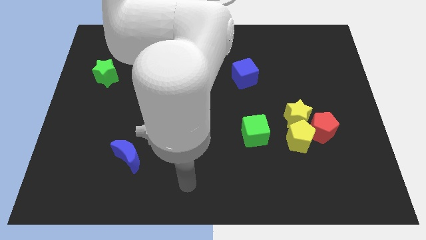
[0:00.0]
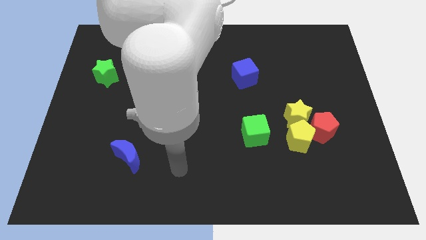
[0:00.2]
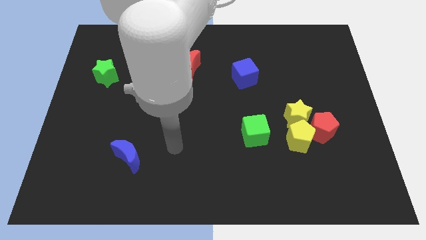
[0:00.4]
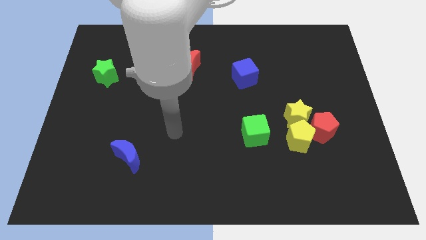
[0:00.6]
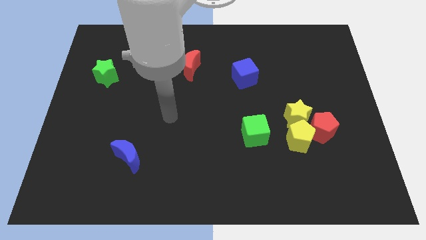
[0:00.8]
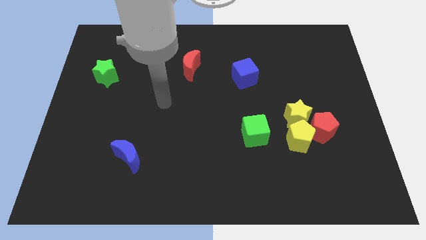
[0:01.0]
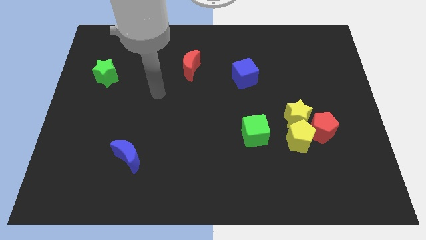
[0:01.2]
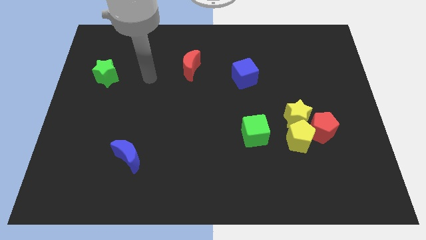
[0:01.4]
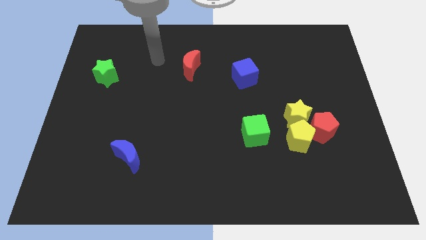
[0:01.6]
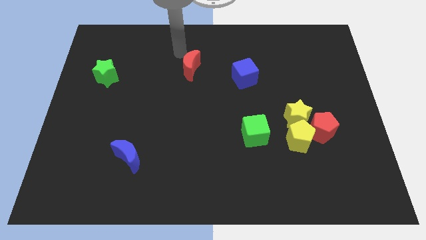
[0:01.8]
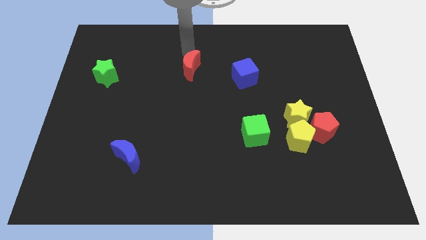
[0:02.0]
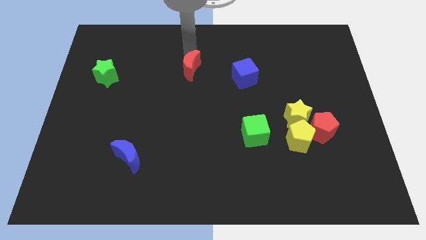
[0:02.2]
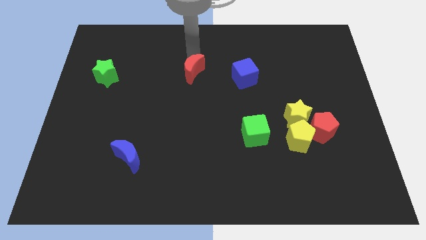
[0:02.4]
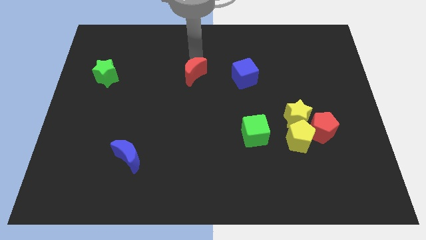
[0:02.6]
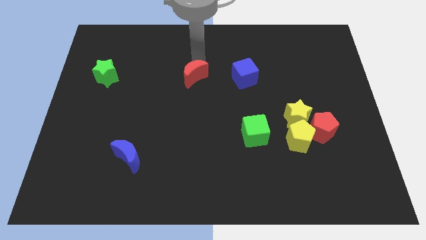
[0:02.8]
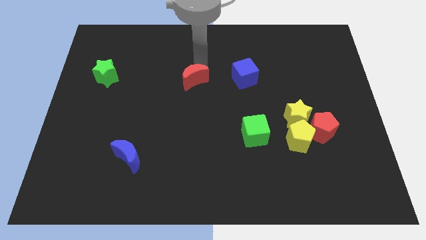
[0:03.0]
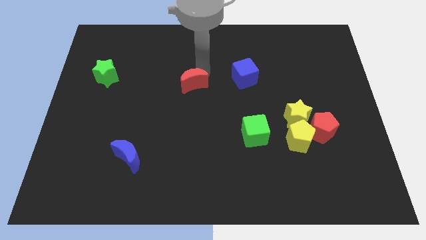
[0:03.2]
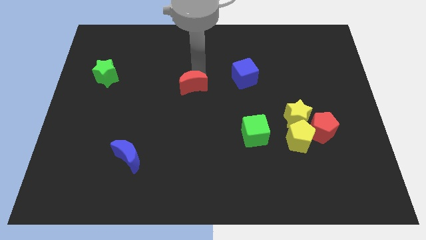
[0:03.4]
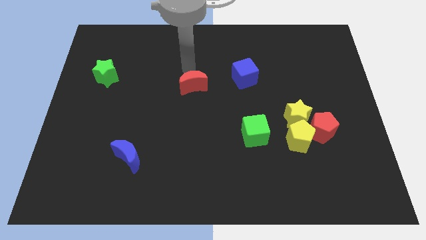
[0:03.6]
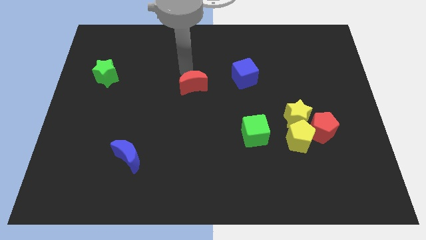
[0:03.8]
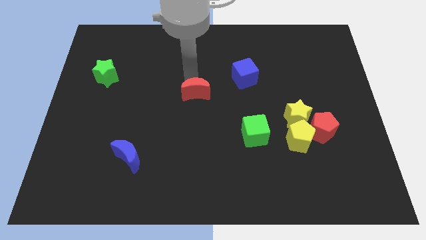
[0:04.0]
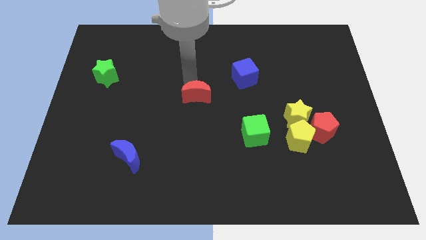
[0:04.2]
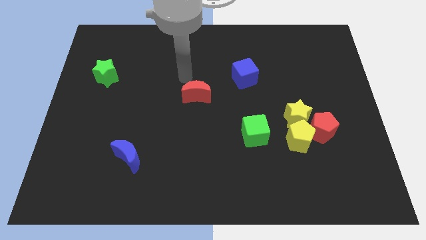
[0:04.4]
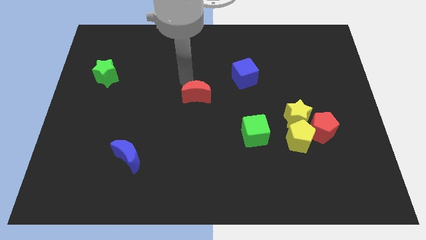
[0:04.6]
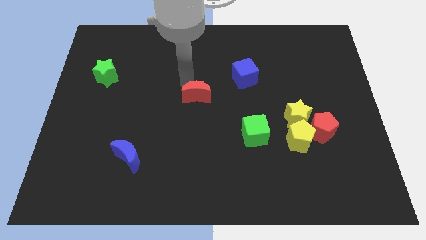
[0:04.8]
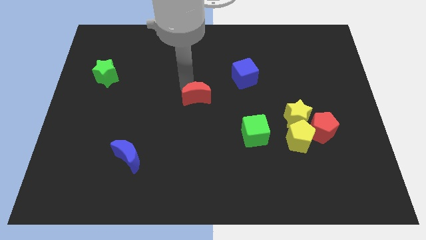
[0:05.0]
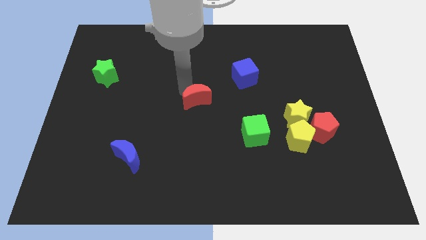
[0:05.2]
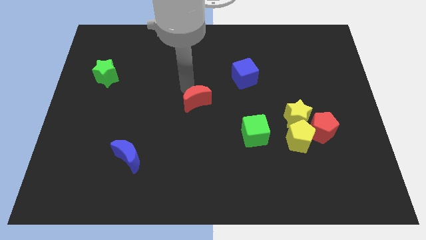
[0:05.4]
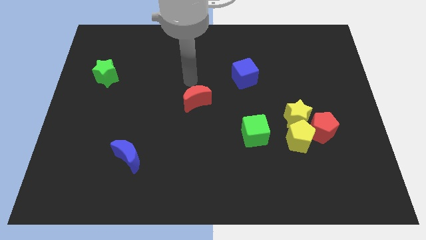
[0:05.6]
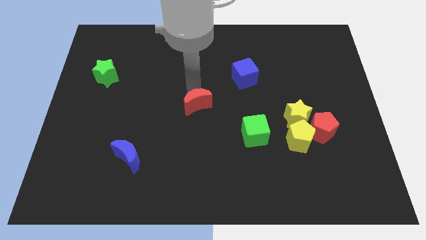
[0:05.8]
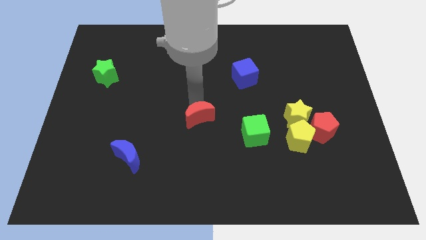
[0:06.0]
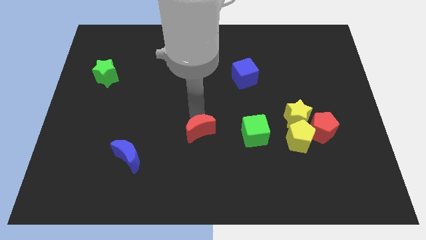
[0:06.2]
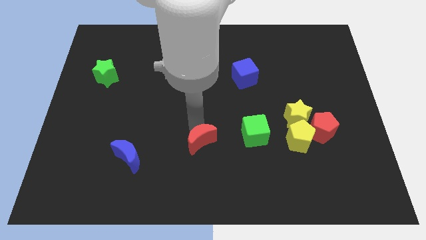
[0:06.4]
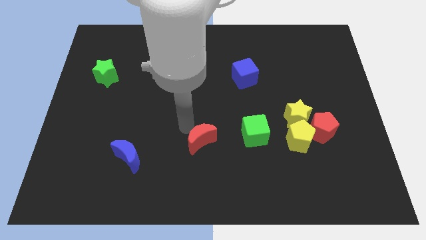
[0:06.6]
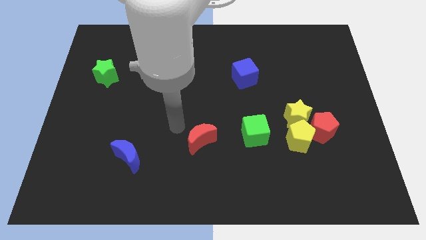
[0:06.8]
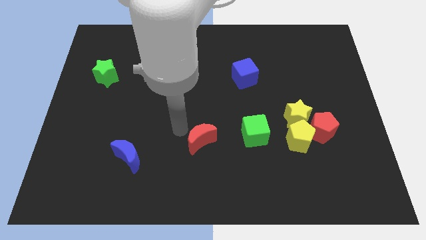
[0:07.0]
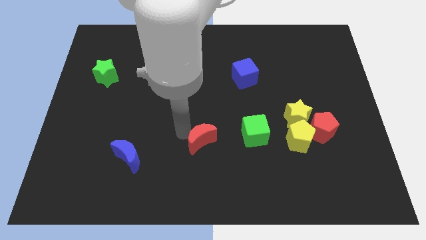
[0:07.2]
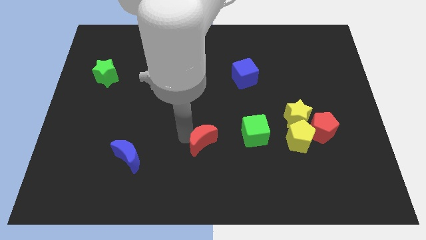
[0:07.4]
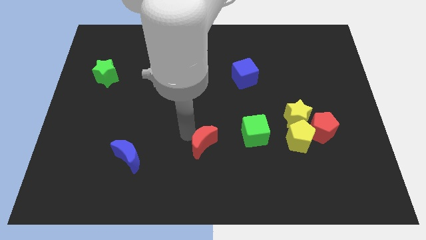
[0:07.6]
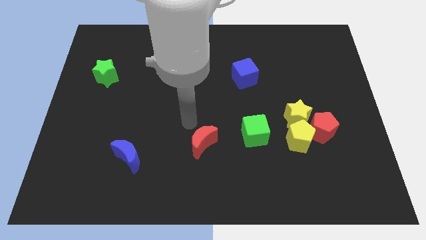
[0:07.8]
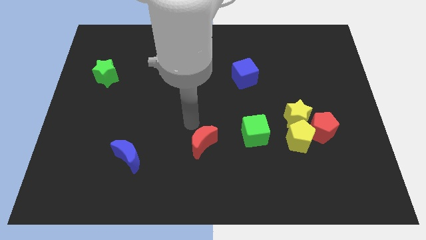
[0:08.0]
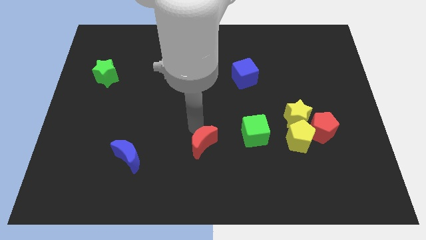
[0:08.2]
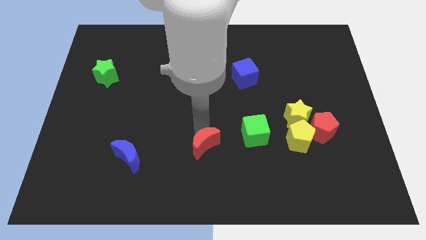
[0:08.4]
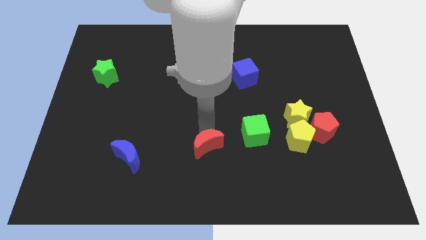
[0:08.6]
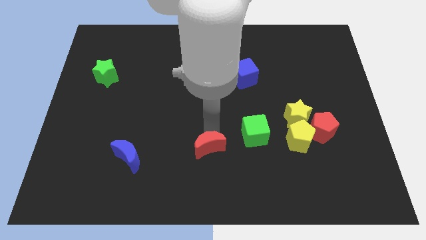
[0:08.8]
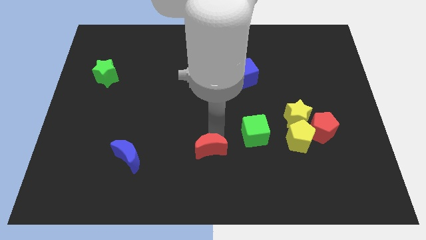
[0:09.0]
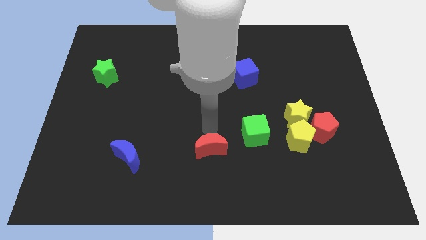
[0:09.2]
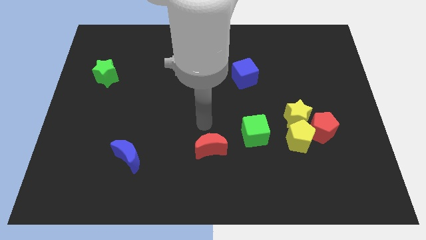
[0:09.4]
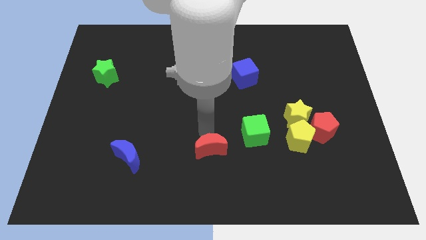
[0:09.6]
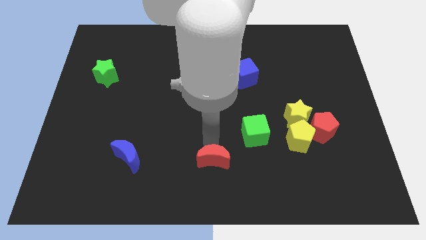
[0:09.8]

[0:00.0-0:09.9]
move the red moon to the bottom

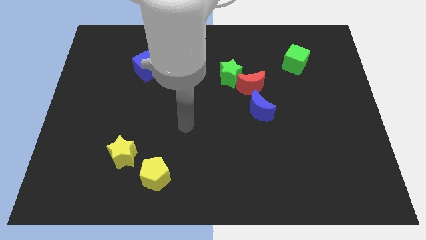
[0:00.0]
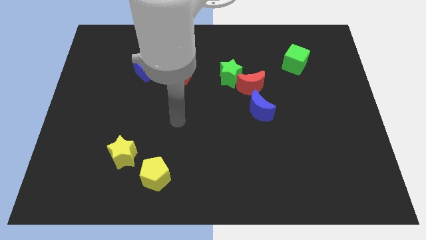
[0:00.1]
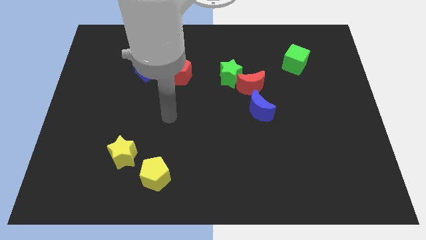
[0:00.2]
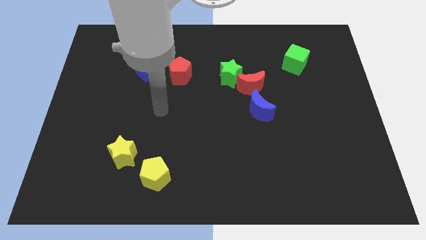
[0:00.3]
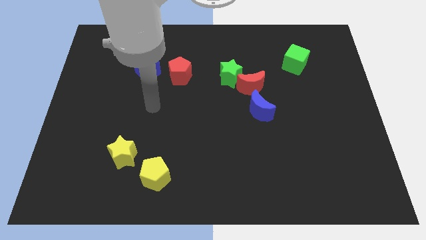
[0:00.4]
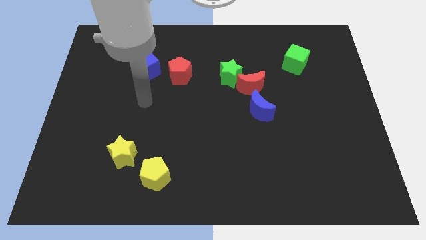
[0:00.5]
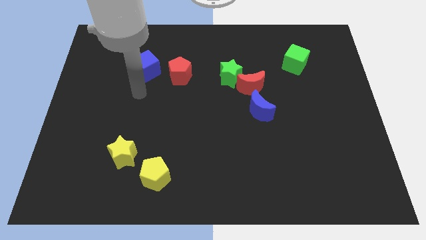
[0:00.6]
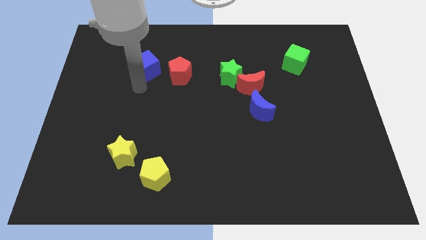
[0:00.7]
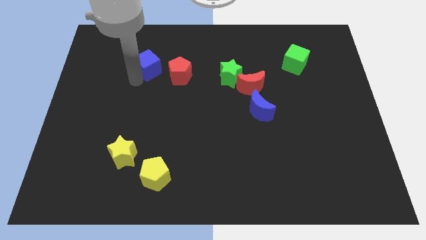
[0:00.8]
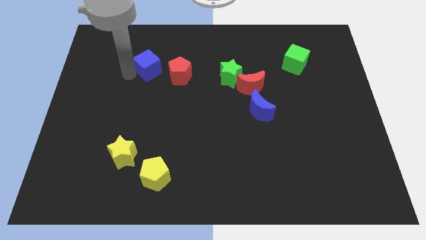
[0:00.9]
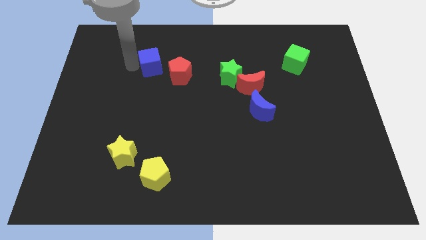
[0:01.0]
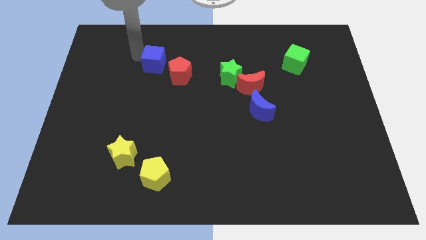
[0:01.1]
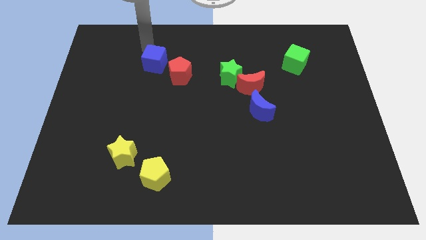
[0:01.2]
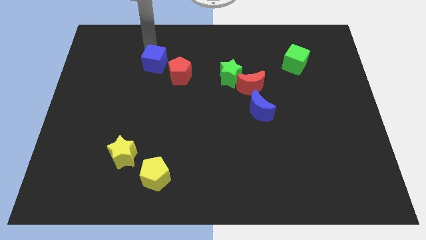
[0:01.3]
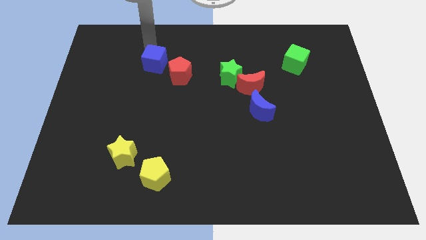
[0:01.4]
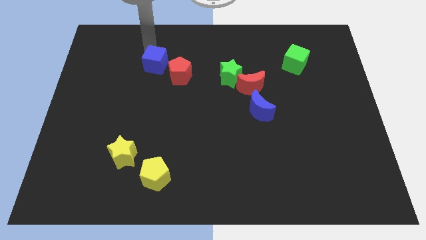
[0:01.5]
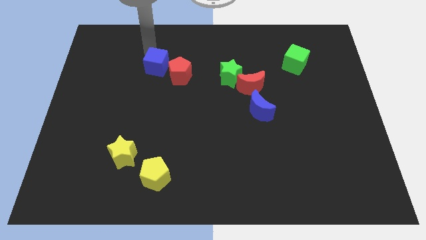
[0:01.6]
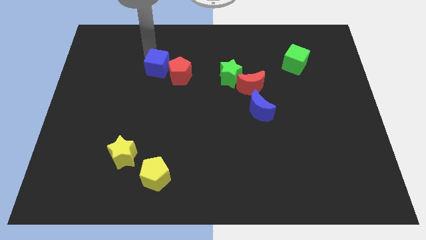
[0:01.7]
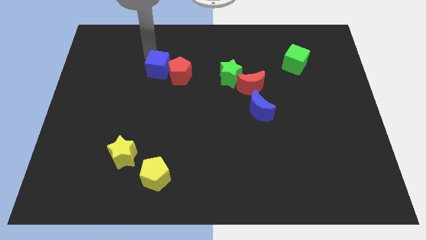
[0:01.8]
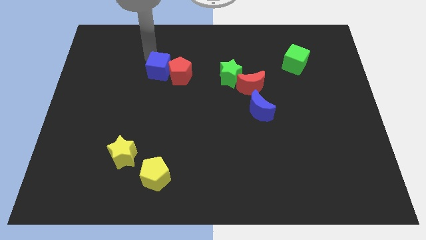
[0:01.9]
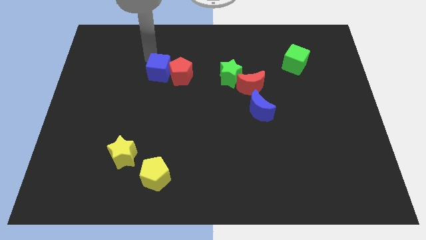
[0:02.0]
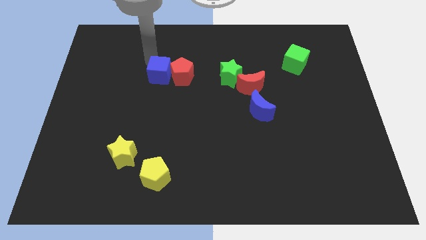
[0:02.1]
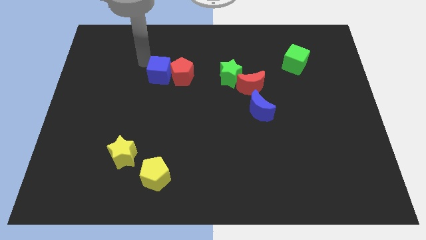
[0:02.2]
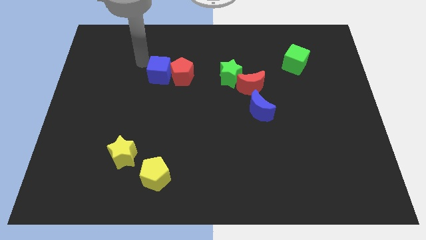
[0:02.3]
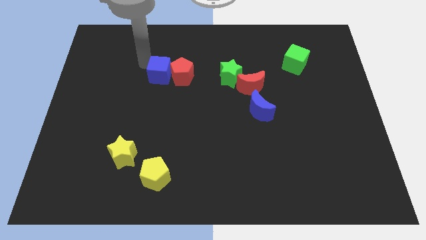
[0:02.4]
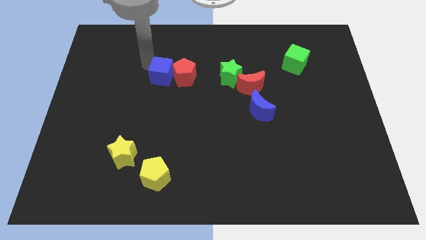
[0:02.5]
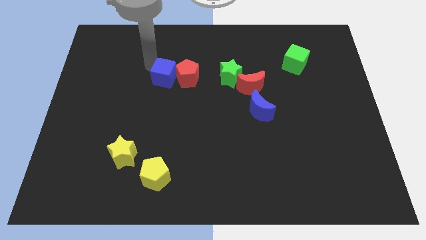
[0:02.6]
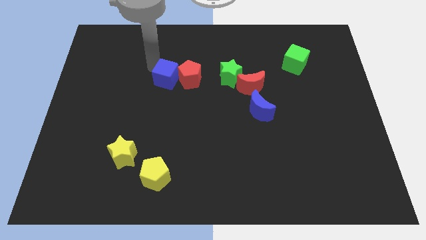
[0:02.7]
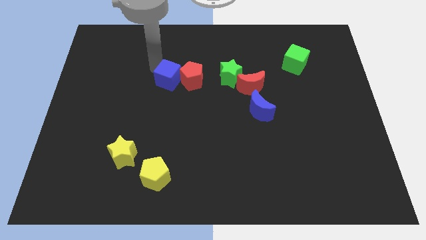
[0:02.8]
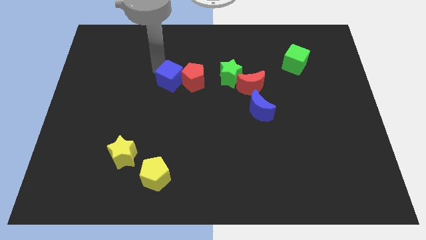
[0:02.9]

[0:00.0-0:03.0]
put the blue cube to the middle of the board

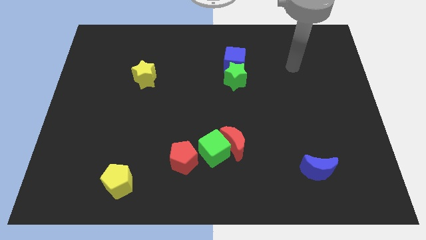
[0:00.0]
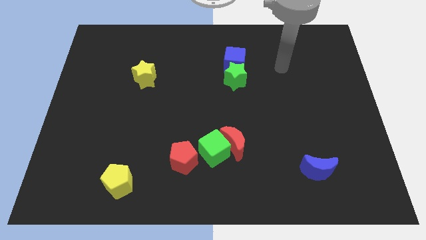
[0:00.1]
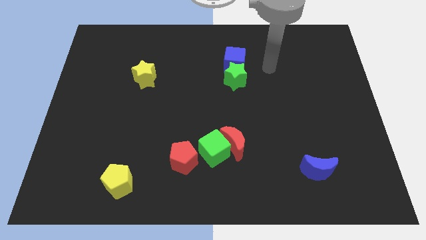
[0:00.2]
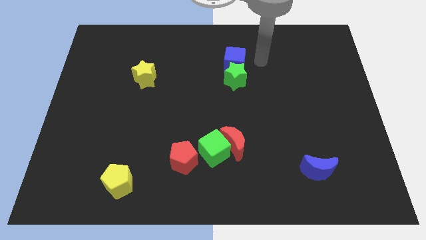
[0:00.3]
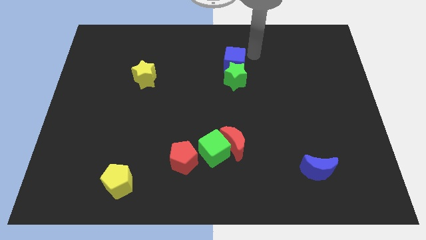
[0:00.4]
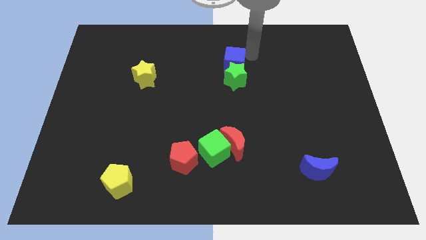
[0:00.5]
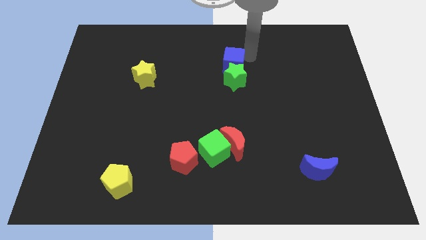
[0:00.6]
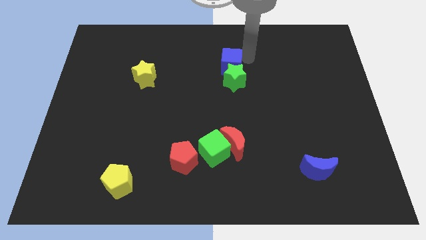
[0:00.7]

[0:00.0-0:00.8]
put the blue cube to the center
